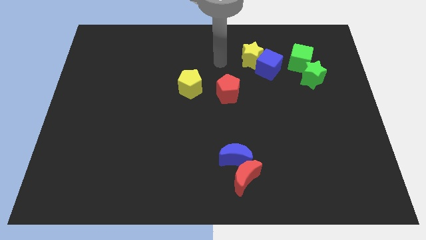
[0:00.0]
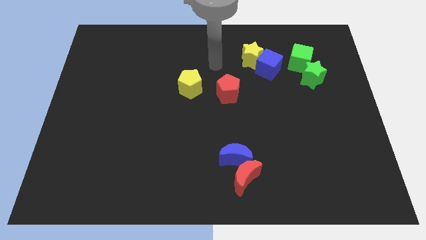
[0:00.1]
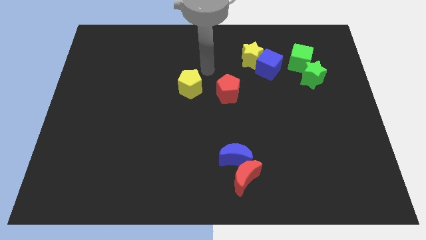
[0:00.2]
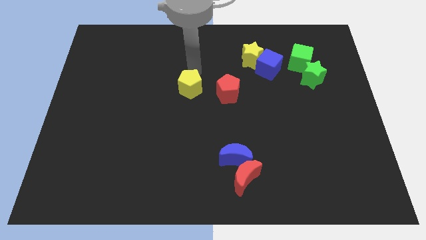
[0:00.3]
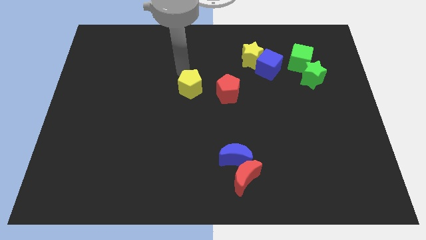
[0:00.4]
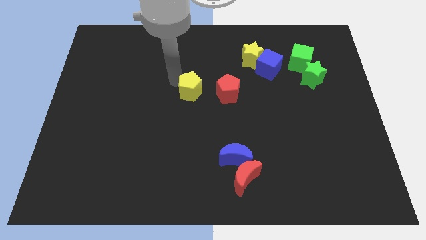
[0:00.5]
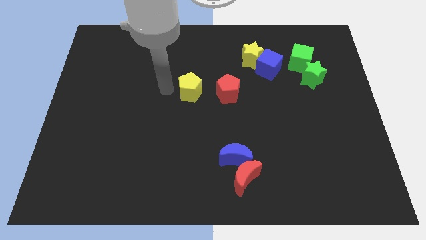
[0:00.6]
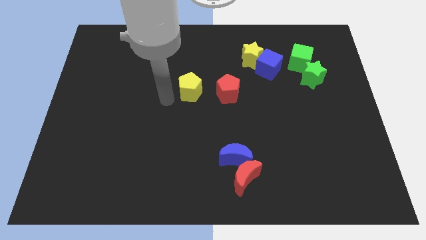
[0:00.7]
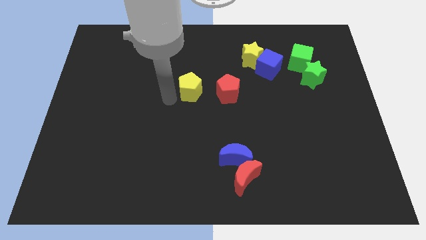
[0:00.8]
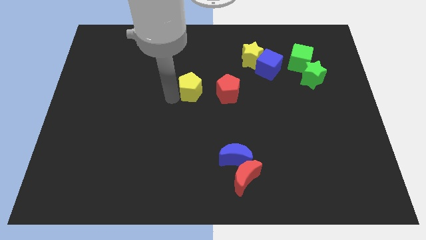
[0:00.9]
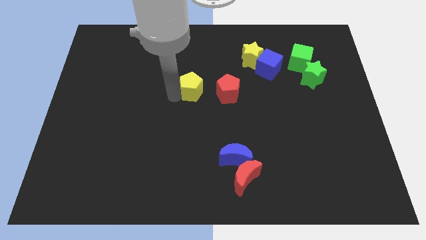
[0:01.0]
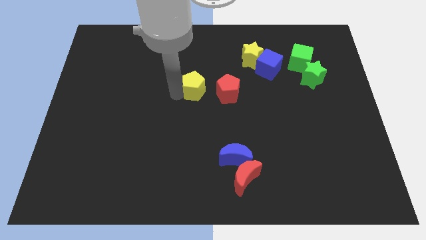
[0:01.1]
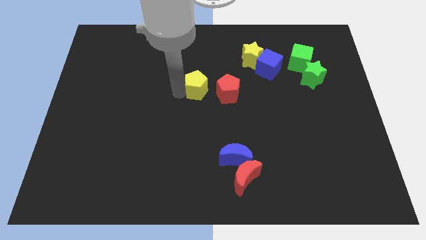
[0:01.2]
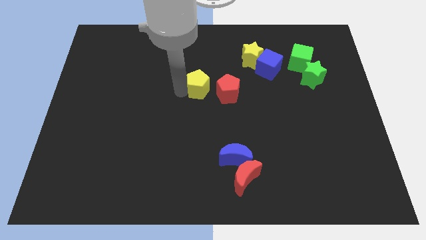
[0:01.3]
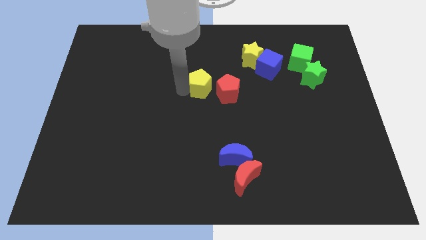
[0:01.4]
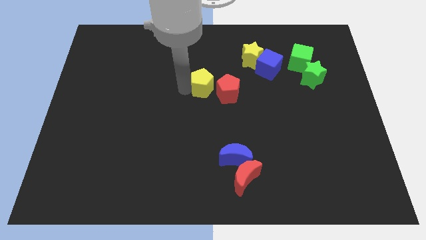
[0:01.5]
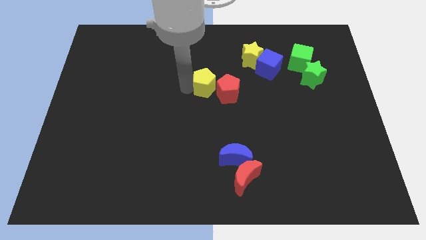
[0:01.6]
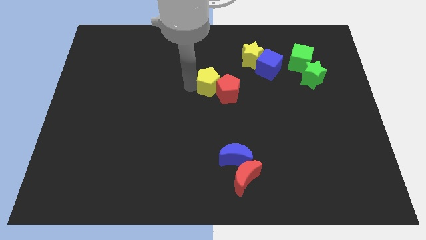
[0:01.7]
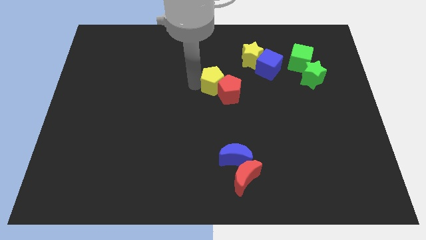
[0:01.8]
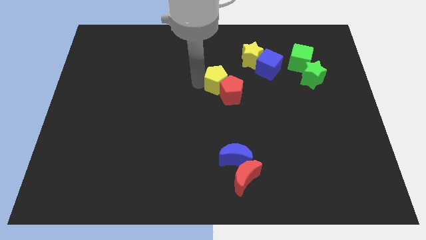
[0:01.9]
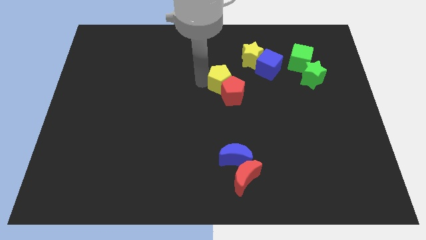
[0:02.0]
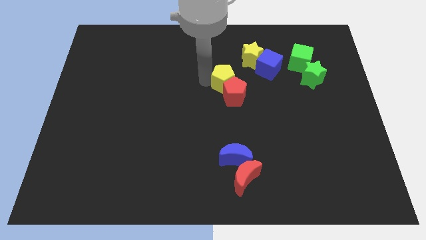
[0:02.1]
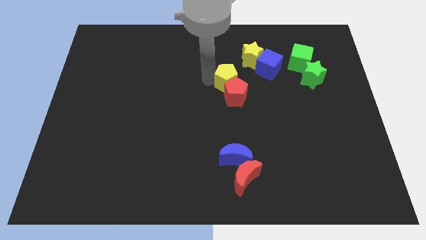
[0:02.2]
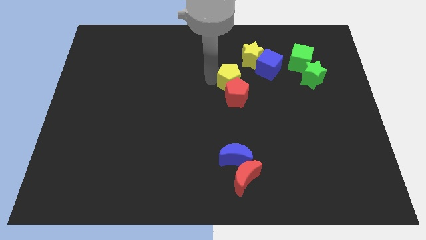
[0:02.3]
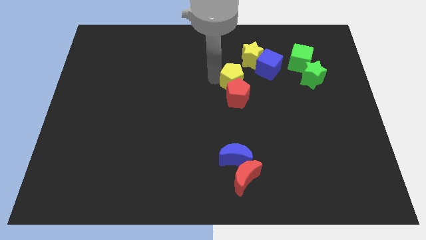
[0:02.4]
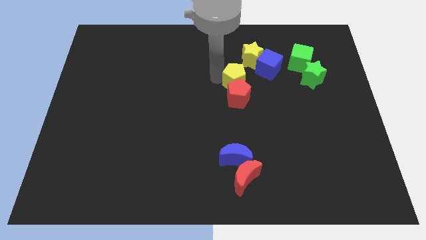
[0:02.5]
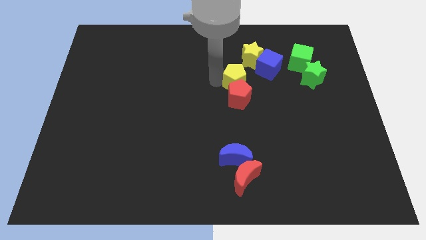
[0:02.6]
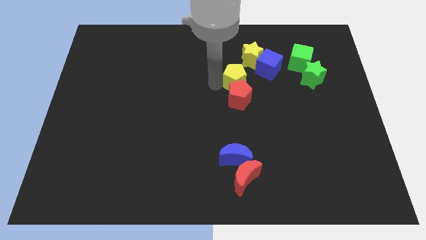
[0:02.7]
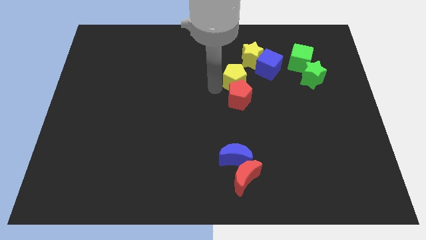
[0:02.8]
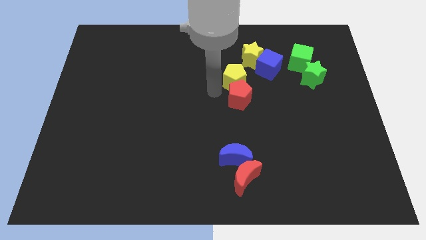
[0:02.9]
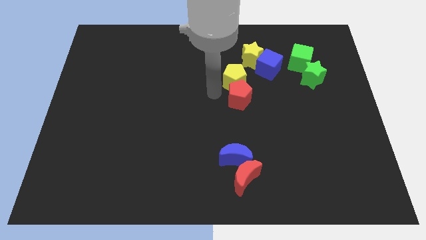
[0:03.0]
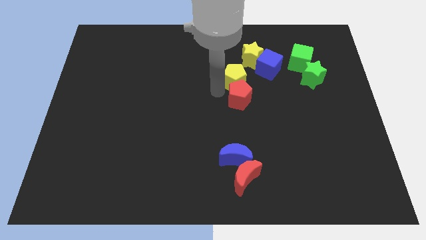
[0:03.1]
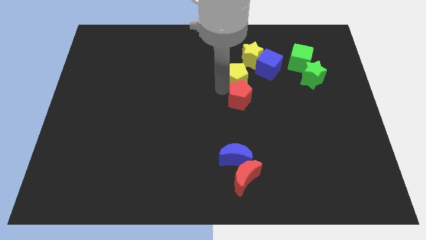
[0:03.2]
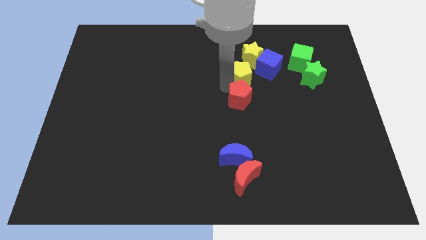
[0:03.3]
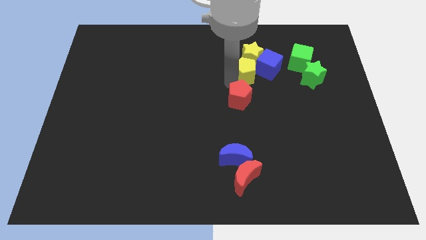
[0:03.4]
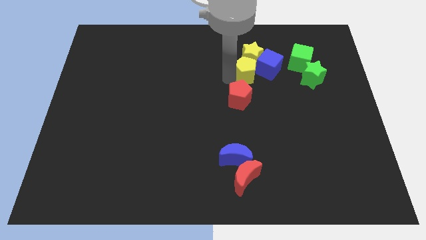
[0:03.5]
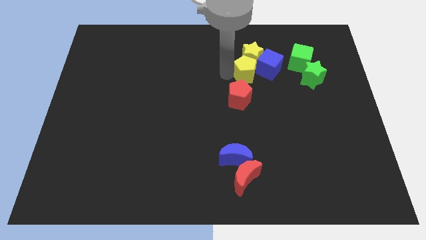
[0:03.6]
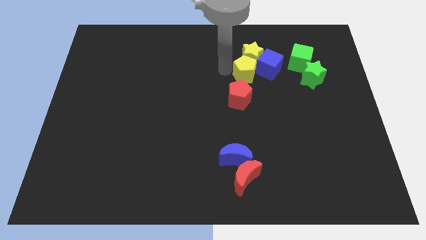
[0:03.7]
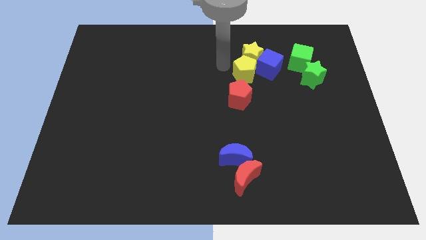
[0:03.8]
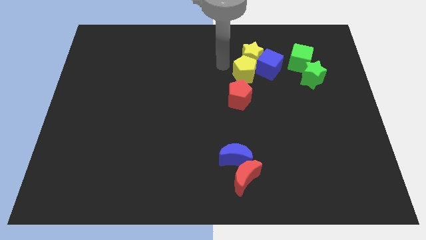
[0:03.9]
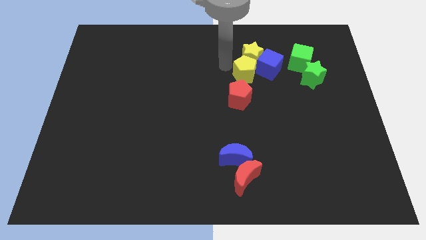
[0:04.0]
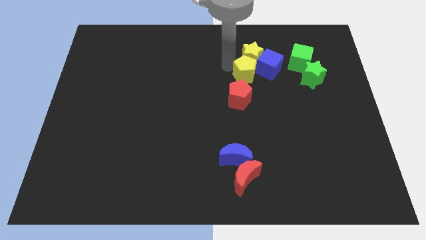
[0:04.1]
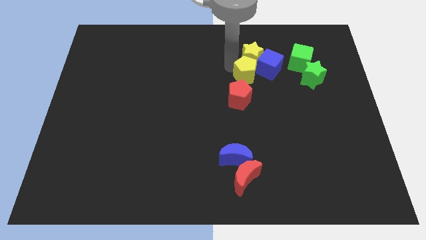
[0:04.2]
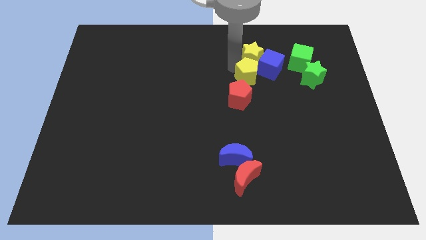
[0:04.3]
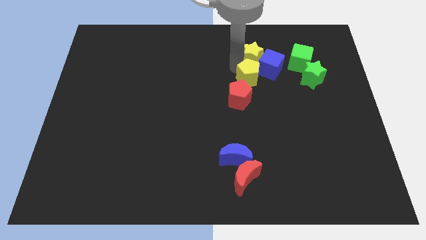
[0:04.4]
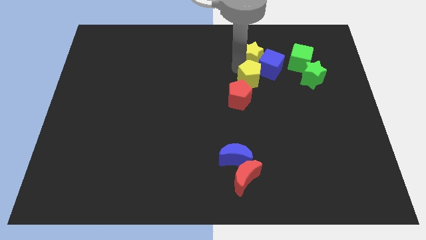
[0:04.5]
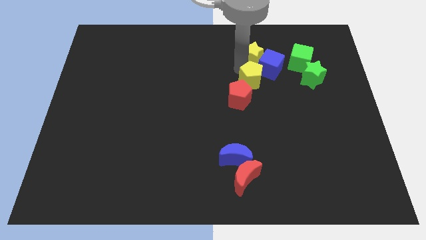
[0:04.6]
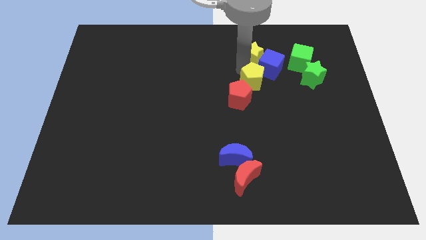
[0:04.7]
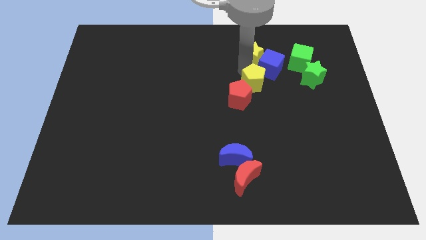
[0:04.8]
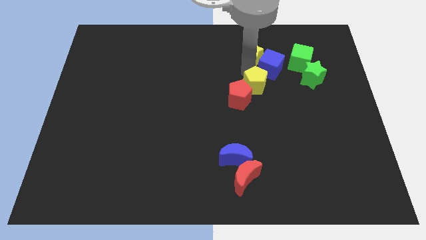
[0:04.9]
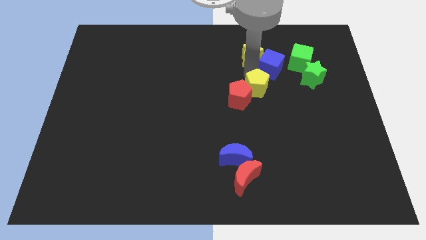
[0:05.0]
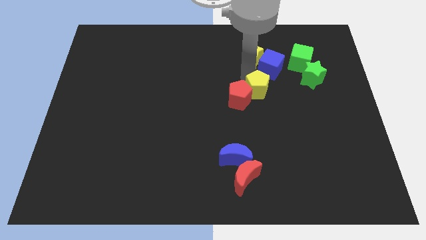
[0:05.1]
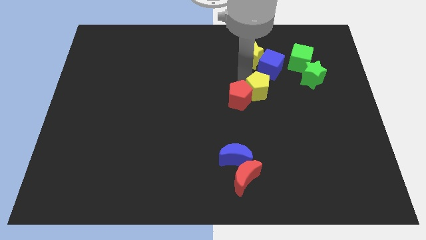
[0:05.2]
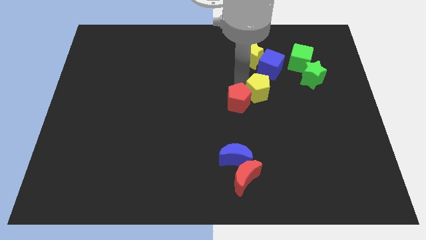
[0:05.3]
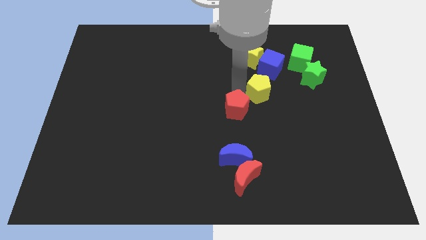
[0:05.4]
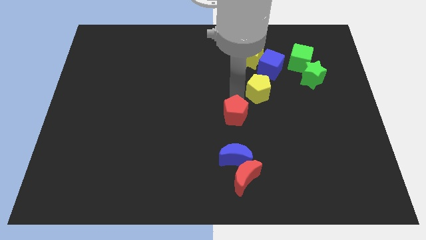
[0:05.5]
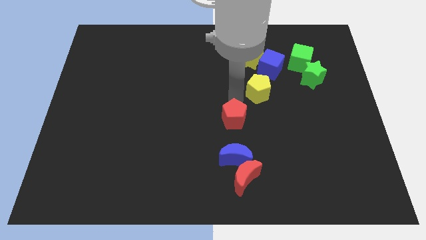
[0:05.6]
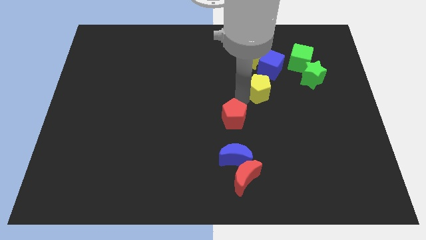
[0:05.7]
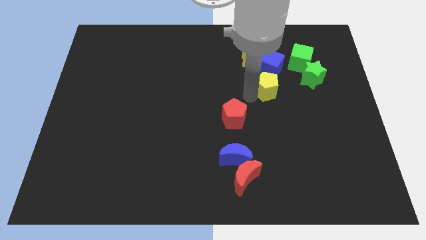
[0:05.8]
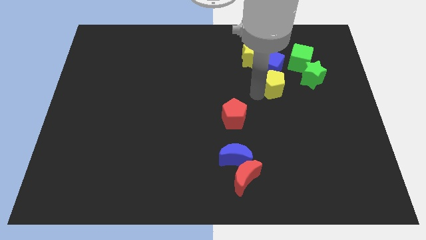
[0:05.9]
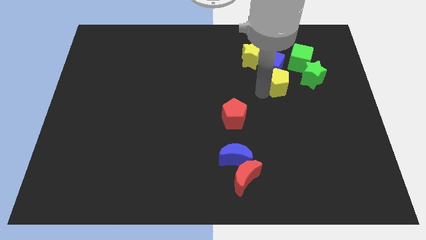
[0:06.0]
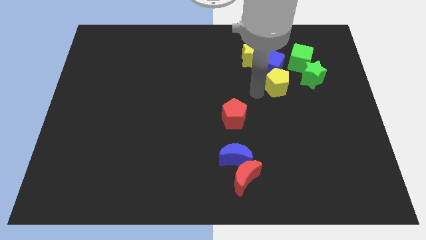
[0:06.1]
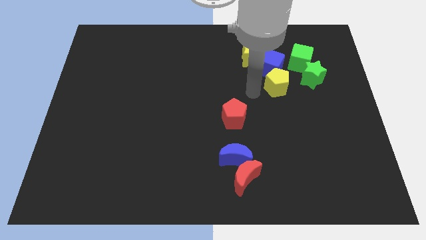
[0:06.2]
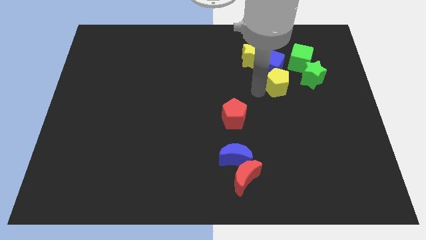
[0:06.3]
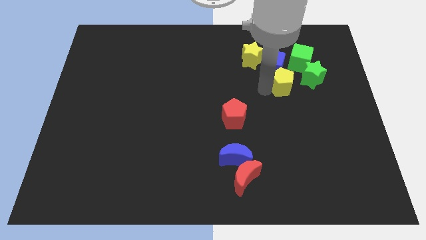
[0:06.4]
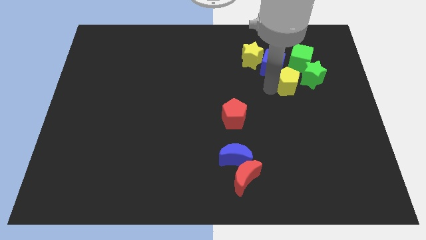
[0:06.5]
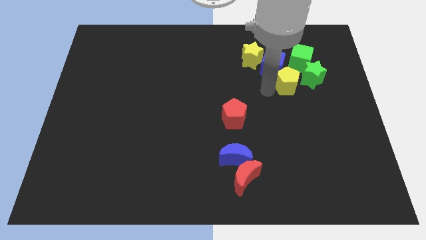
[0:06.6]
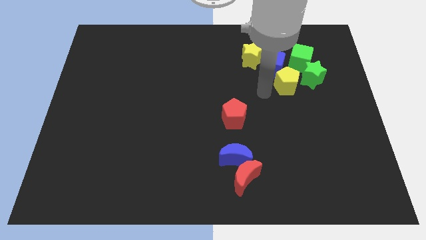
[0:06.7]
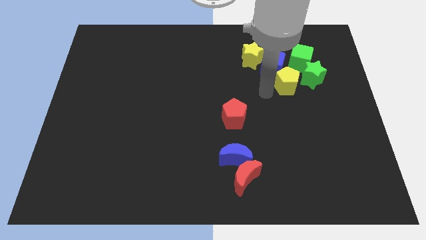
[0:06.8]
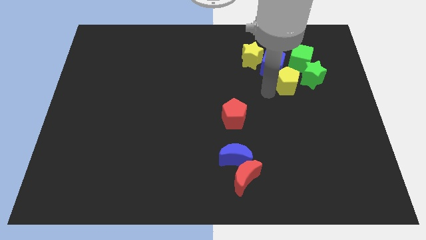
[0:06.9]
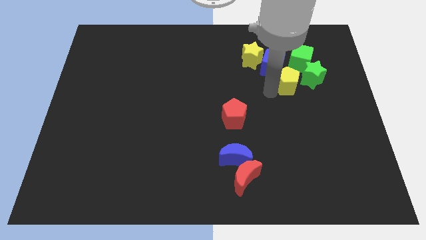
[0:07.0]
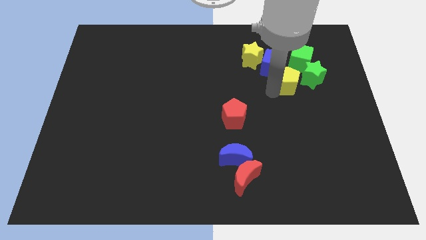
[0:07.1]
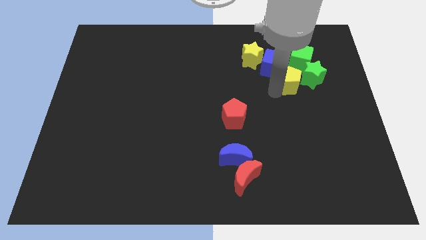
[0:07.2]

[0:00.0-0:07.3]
push the yellow pentagon close to the green star

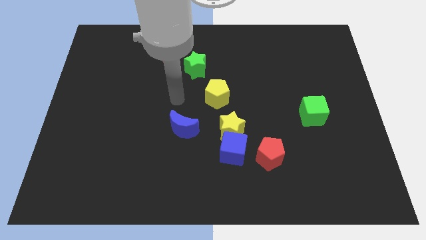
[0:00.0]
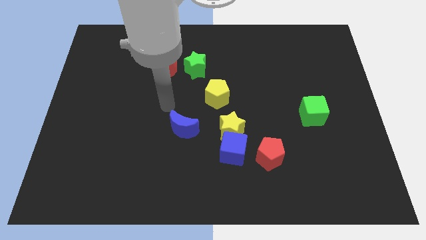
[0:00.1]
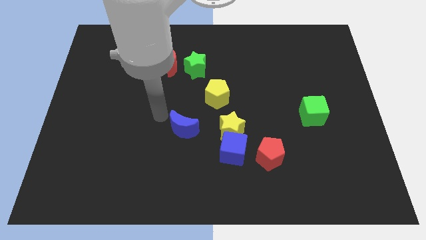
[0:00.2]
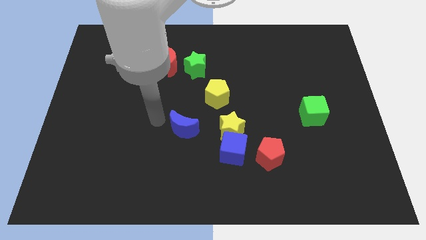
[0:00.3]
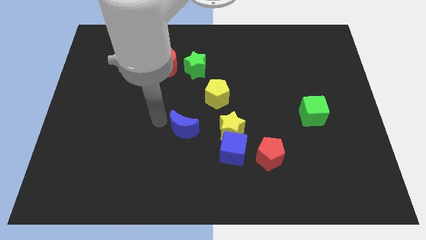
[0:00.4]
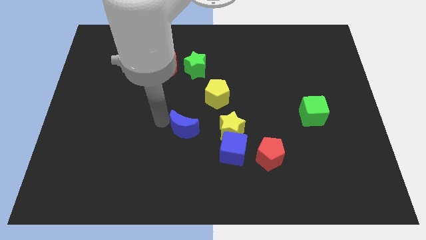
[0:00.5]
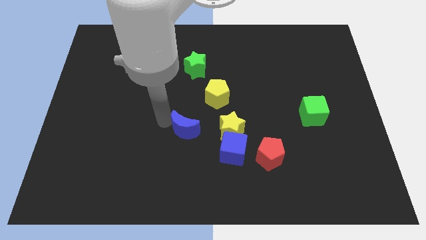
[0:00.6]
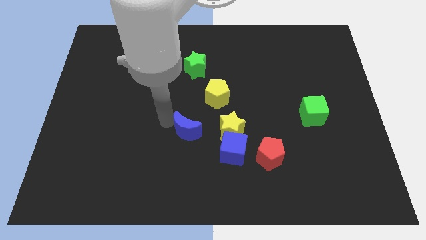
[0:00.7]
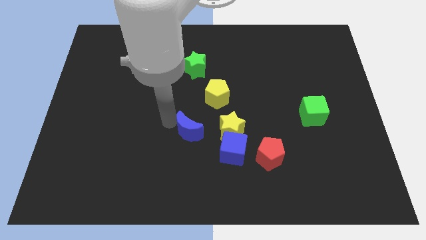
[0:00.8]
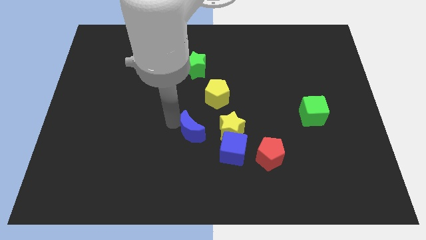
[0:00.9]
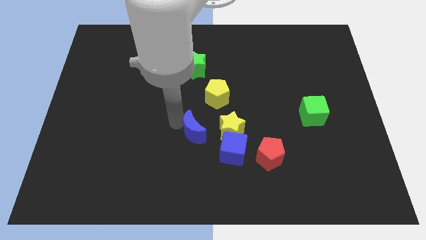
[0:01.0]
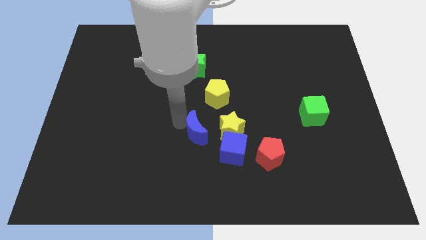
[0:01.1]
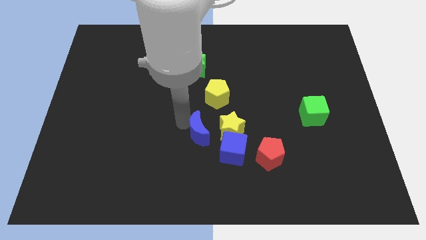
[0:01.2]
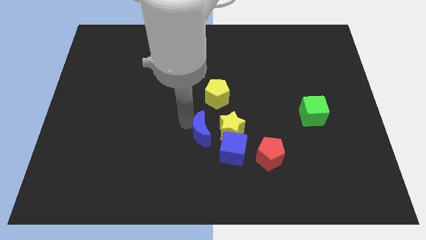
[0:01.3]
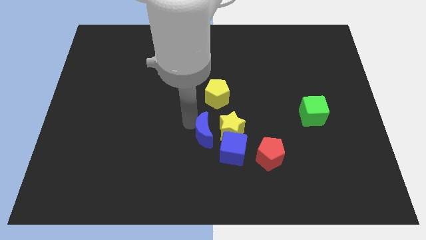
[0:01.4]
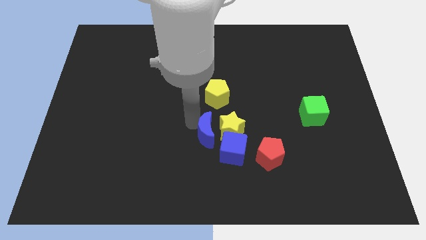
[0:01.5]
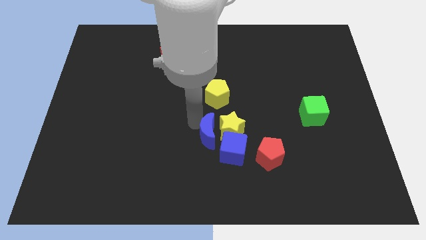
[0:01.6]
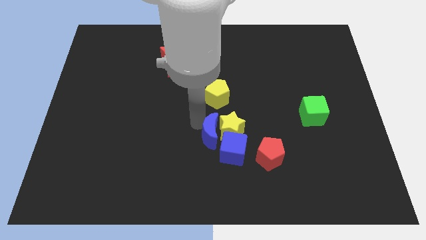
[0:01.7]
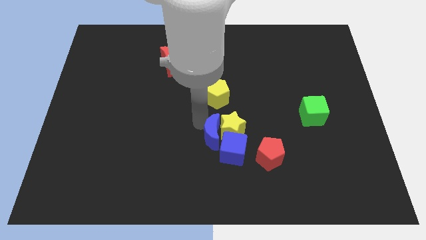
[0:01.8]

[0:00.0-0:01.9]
push the blue moon to the blue cube
